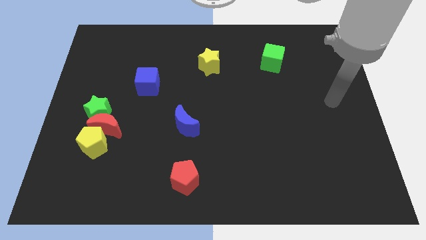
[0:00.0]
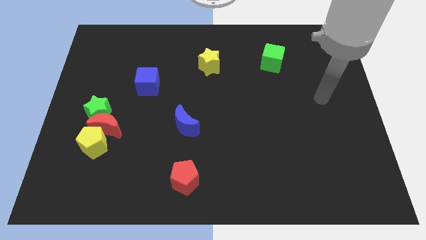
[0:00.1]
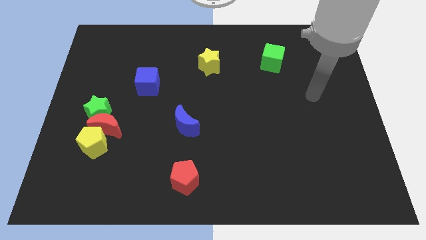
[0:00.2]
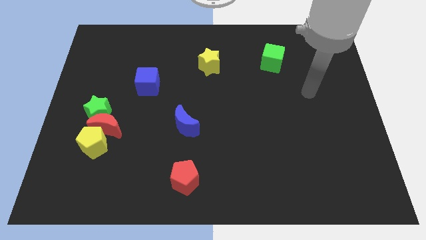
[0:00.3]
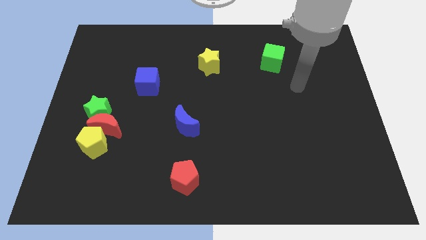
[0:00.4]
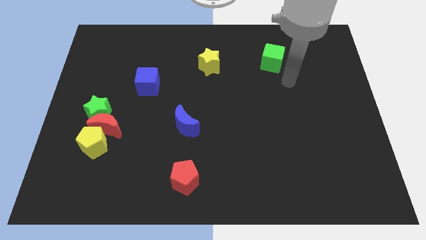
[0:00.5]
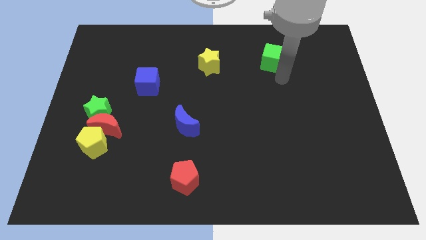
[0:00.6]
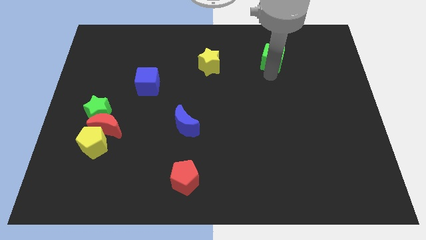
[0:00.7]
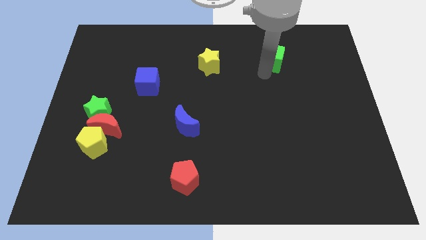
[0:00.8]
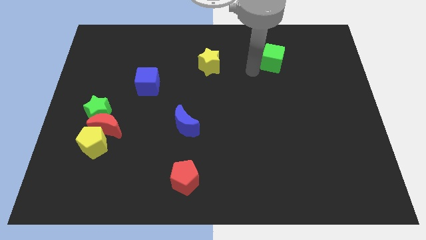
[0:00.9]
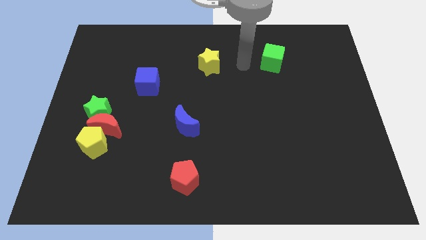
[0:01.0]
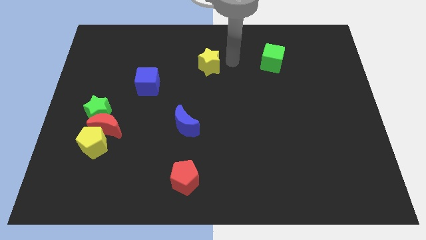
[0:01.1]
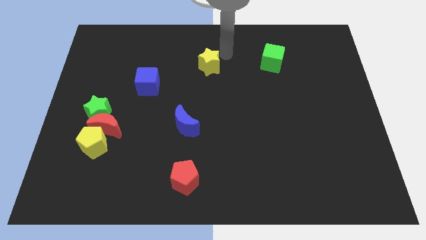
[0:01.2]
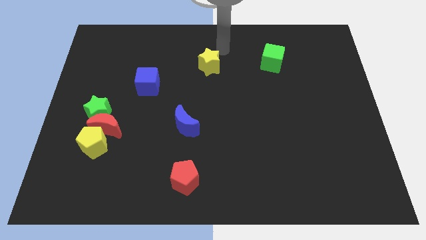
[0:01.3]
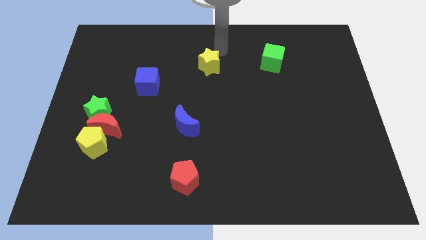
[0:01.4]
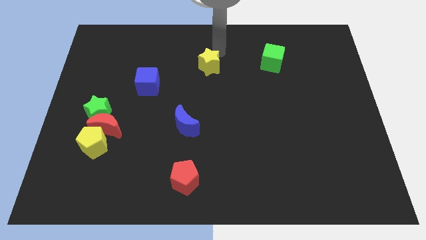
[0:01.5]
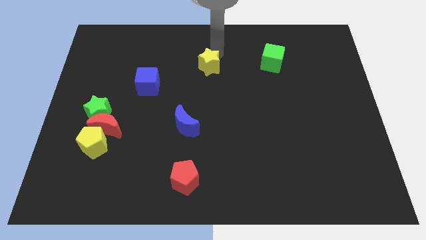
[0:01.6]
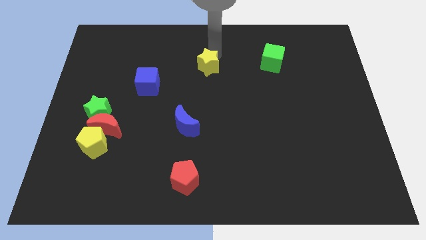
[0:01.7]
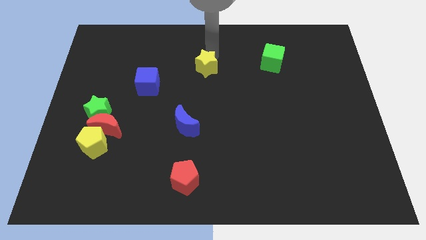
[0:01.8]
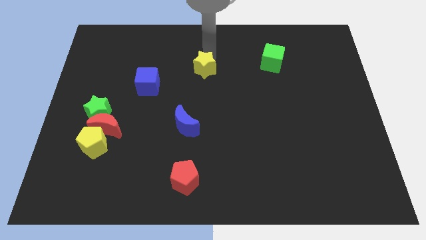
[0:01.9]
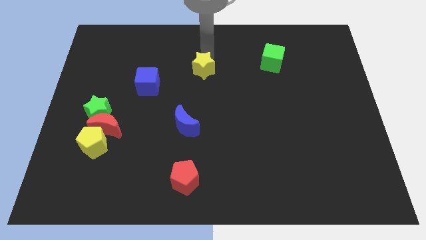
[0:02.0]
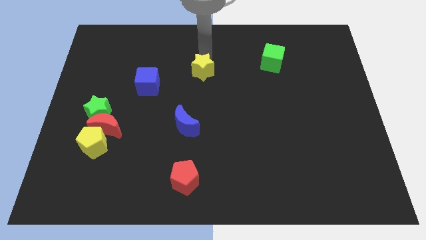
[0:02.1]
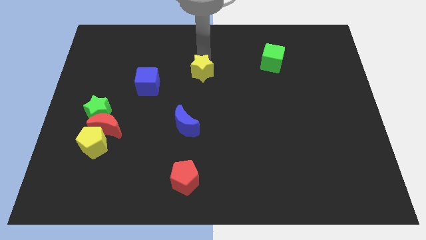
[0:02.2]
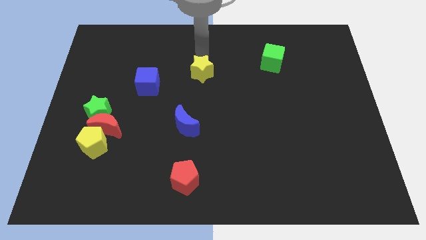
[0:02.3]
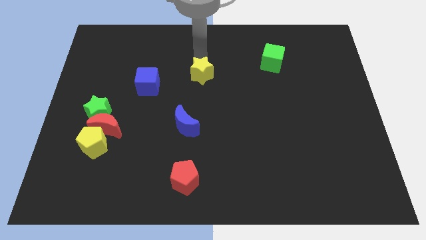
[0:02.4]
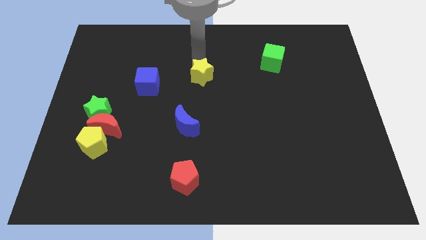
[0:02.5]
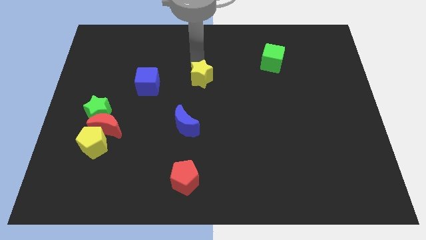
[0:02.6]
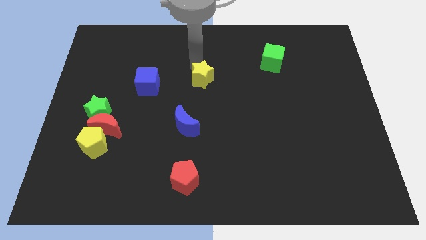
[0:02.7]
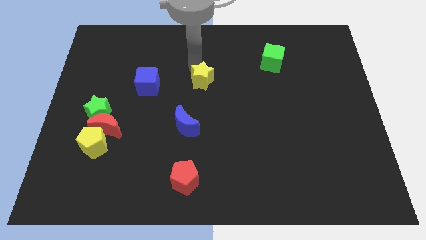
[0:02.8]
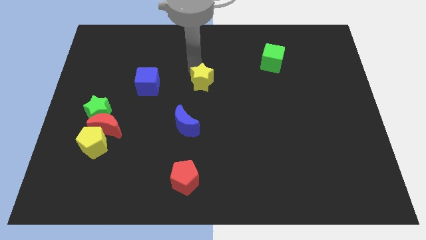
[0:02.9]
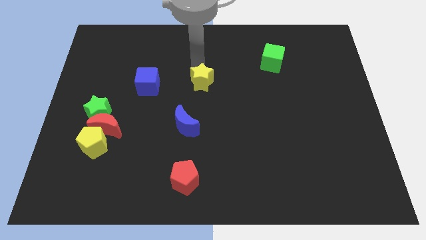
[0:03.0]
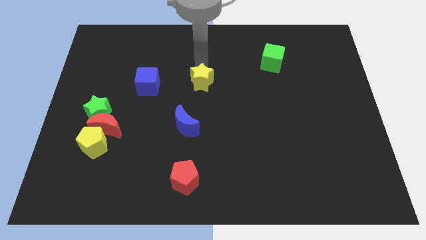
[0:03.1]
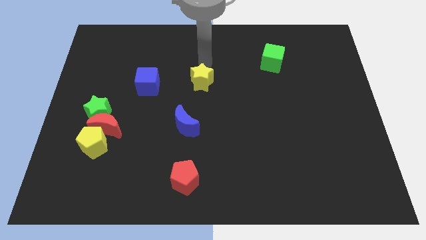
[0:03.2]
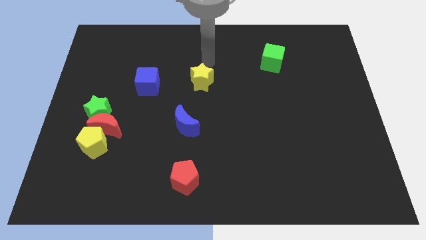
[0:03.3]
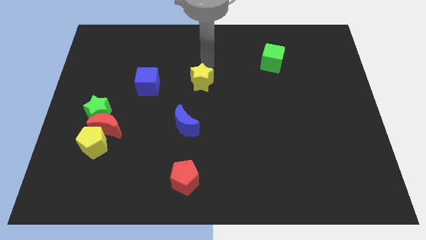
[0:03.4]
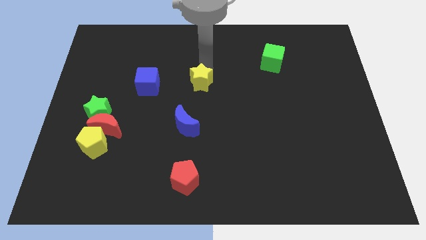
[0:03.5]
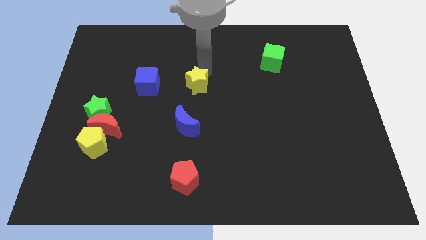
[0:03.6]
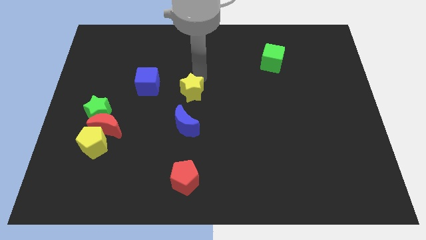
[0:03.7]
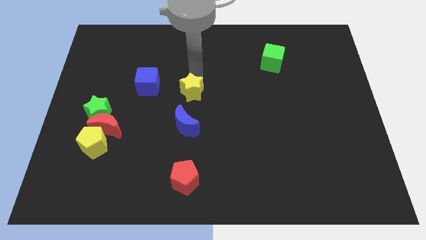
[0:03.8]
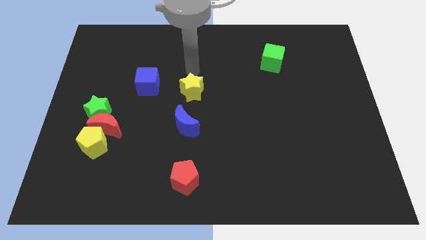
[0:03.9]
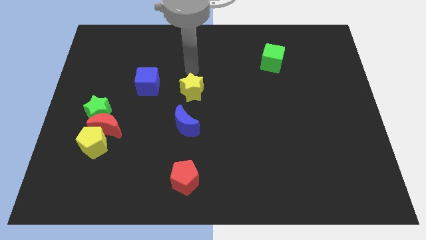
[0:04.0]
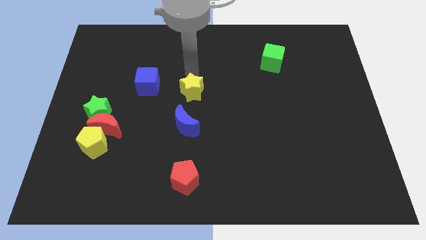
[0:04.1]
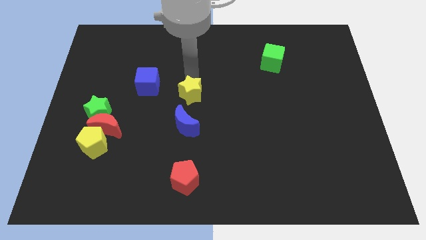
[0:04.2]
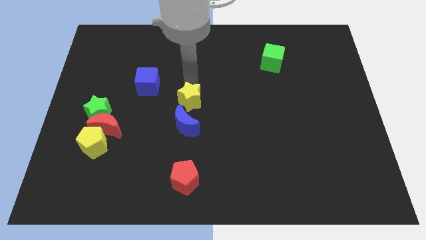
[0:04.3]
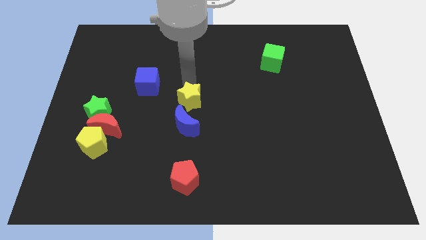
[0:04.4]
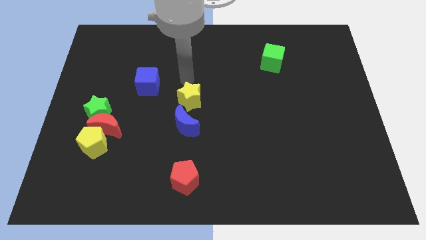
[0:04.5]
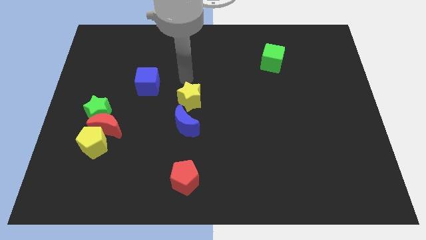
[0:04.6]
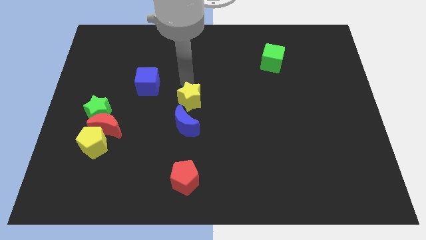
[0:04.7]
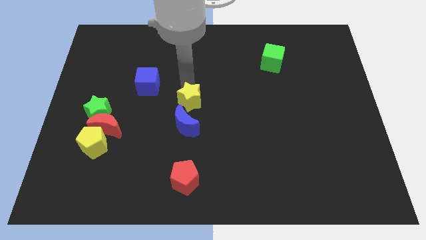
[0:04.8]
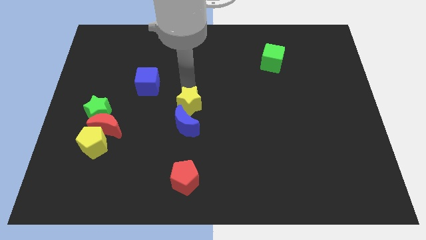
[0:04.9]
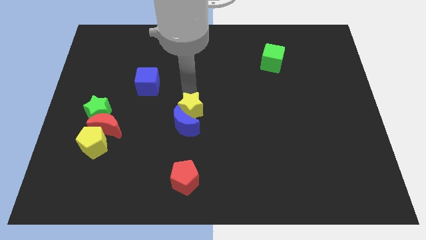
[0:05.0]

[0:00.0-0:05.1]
push the yellow star towards the blue moon

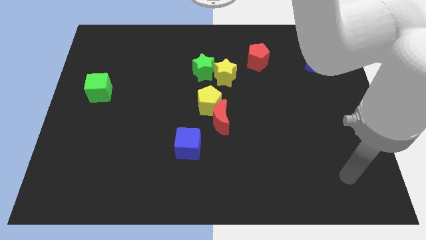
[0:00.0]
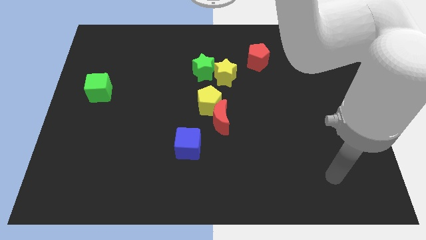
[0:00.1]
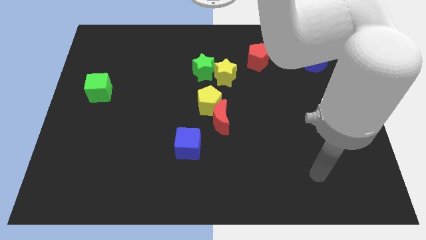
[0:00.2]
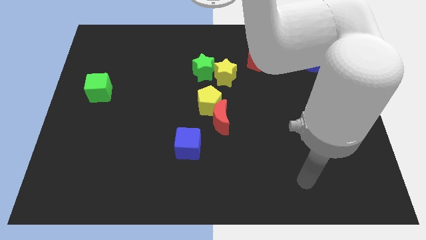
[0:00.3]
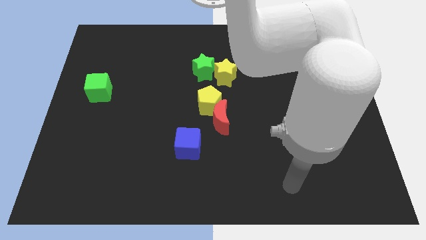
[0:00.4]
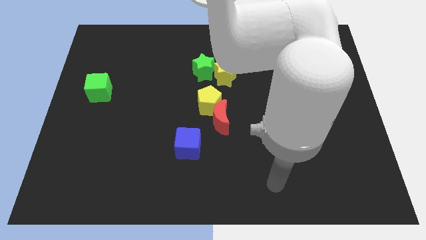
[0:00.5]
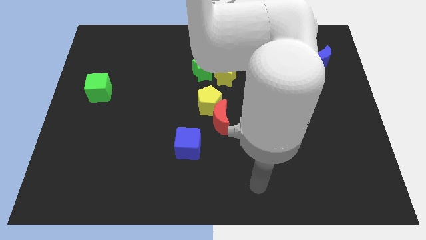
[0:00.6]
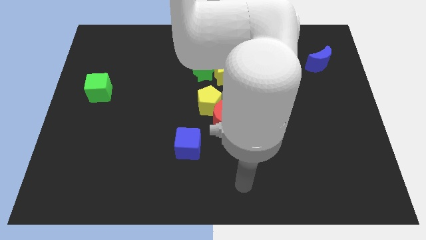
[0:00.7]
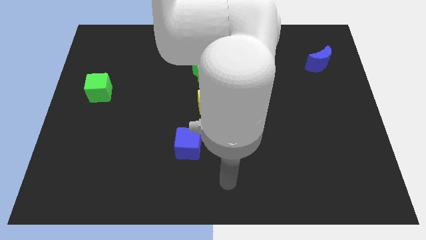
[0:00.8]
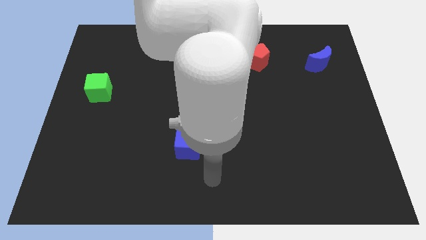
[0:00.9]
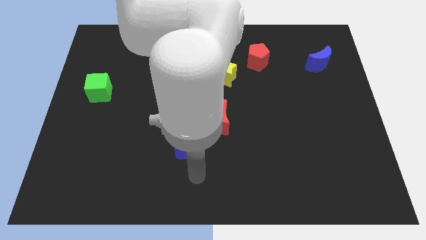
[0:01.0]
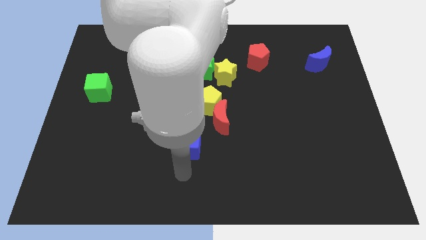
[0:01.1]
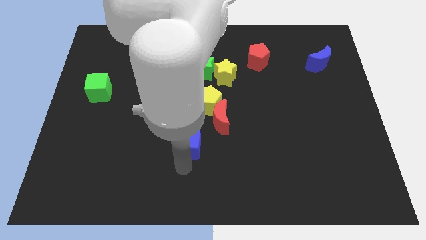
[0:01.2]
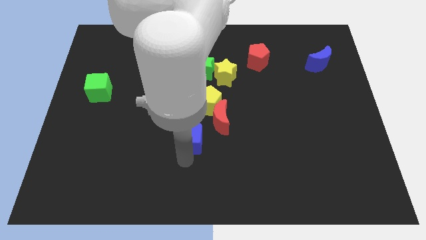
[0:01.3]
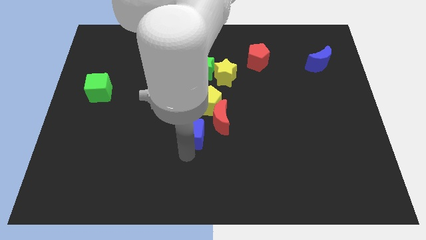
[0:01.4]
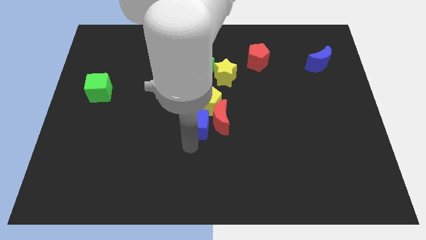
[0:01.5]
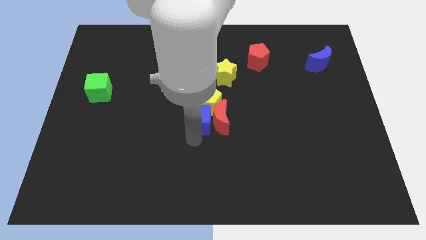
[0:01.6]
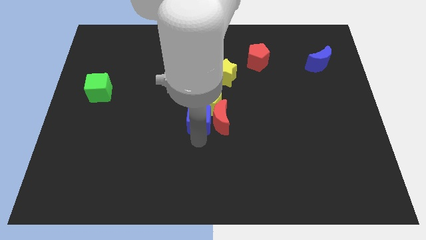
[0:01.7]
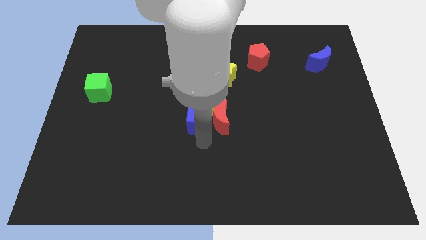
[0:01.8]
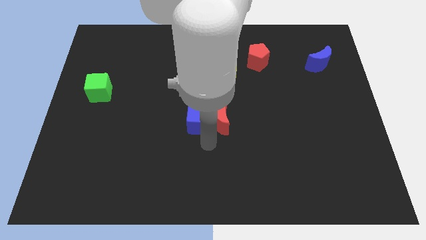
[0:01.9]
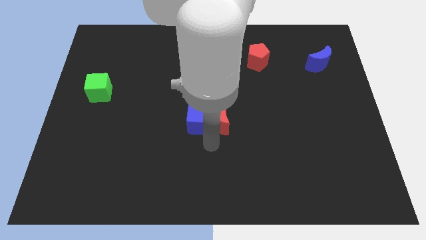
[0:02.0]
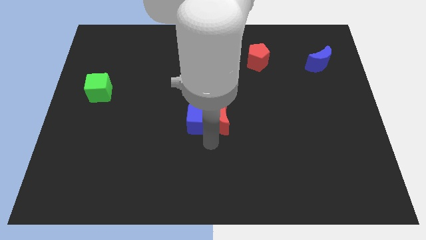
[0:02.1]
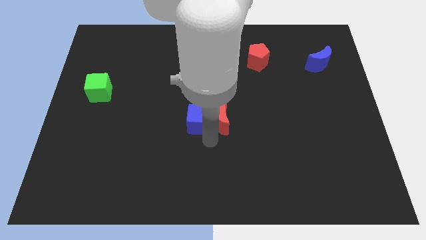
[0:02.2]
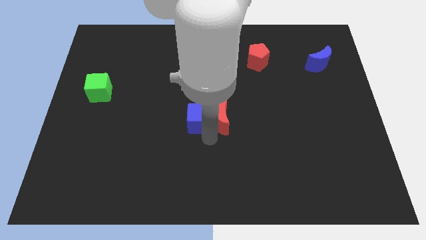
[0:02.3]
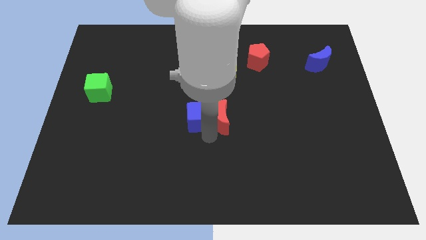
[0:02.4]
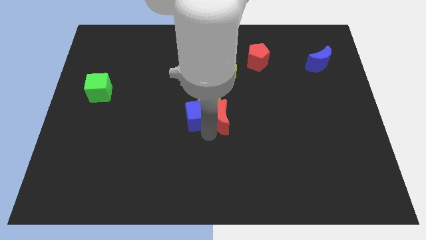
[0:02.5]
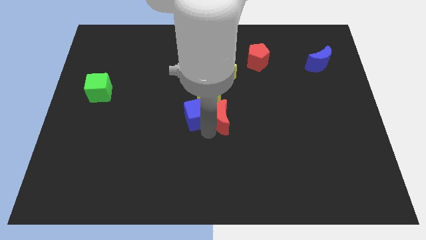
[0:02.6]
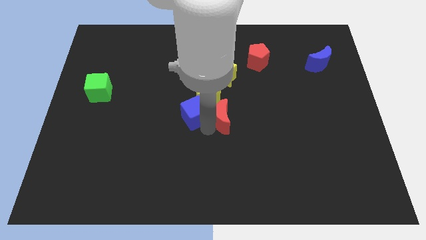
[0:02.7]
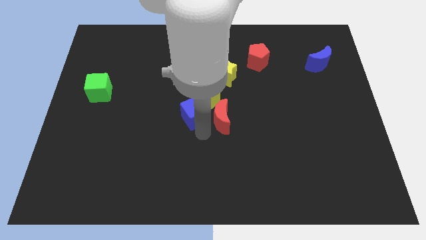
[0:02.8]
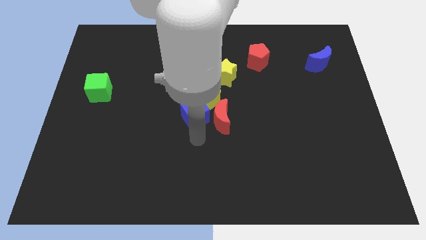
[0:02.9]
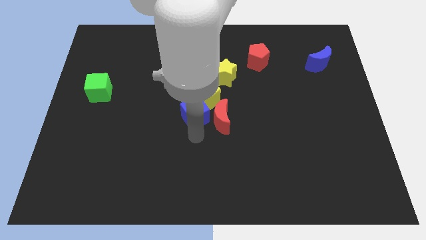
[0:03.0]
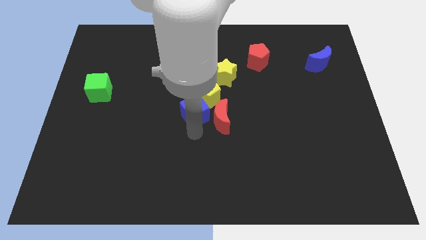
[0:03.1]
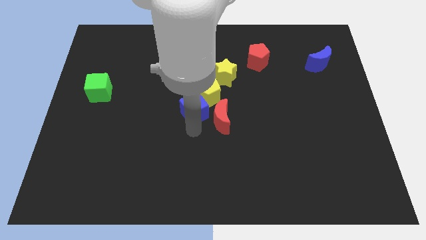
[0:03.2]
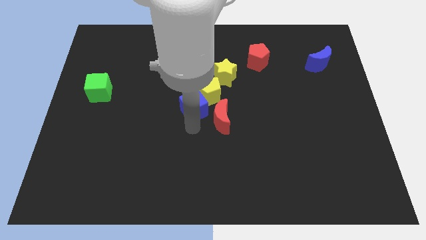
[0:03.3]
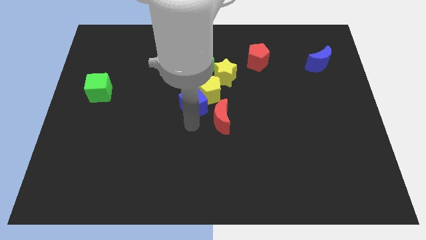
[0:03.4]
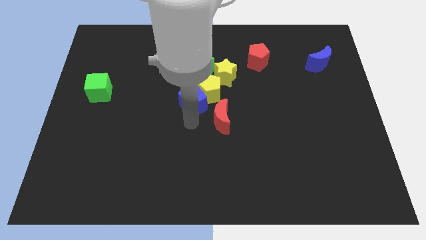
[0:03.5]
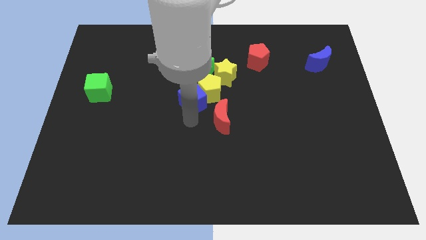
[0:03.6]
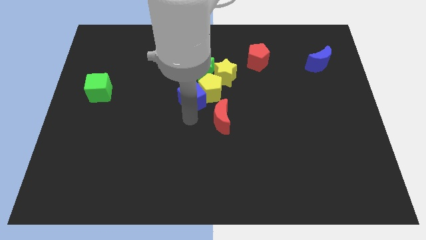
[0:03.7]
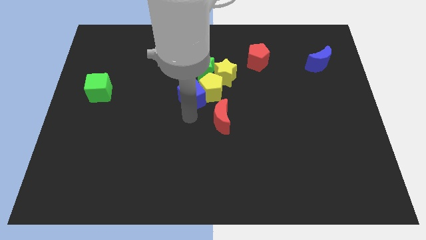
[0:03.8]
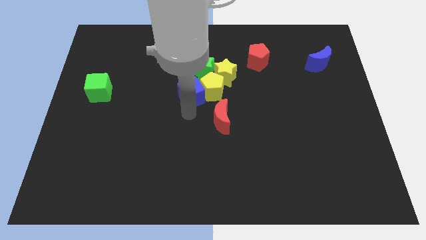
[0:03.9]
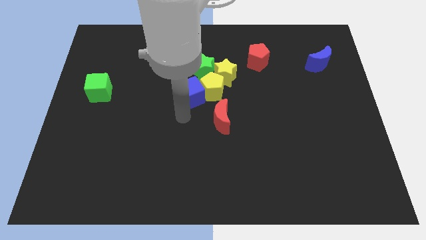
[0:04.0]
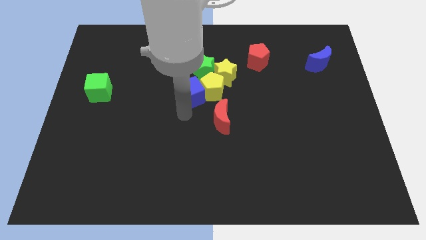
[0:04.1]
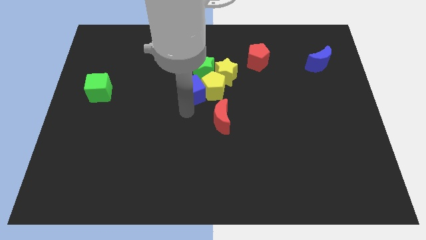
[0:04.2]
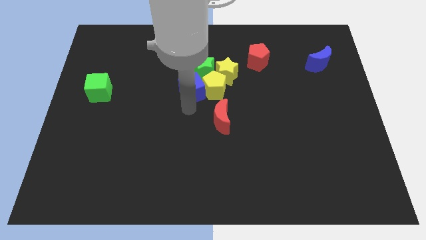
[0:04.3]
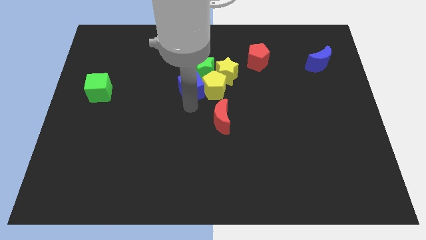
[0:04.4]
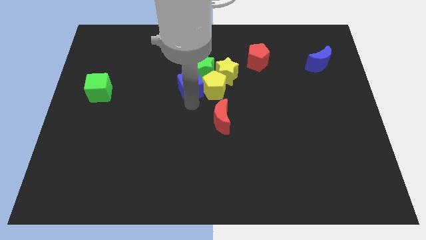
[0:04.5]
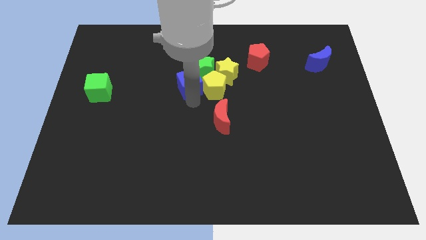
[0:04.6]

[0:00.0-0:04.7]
put the blue cube close to the green star
